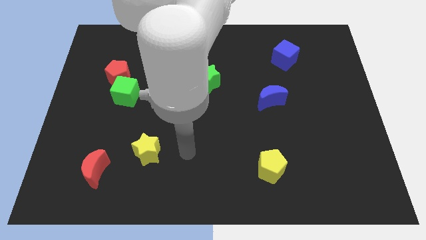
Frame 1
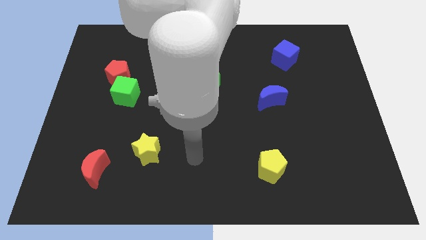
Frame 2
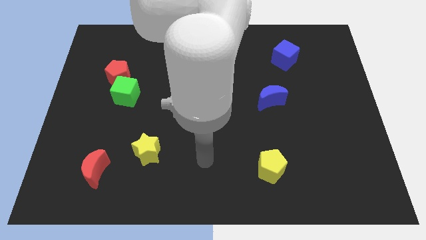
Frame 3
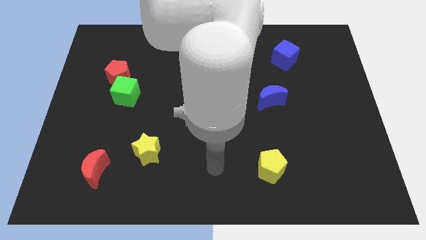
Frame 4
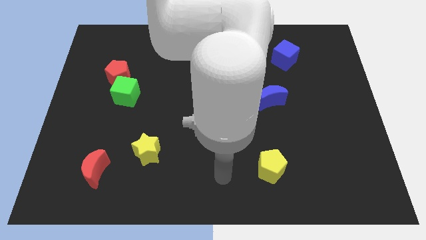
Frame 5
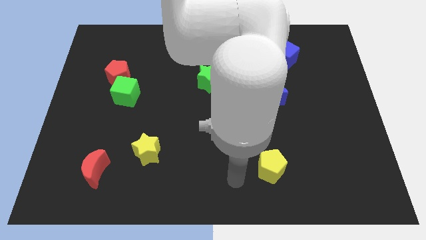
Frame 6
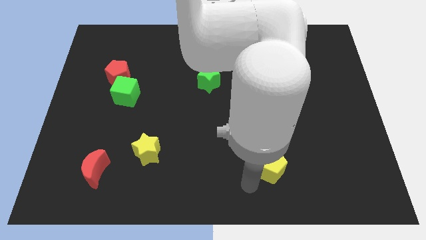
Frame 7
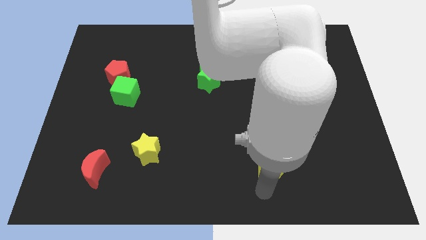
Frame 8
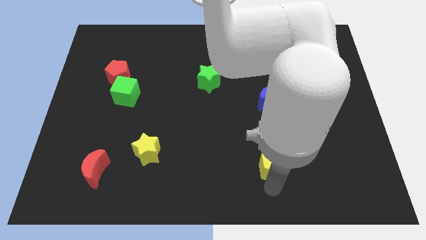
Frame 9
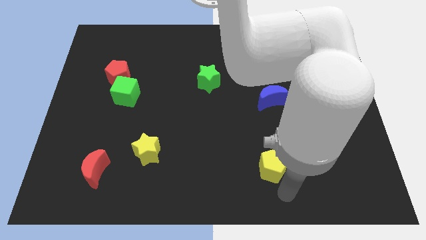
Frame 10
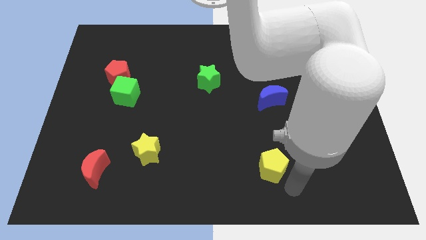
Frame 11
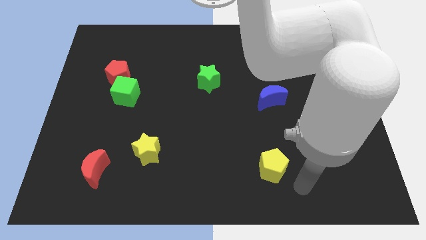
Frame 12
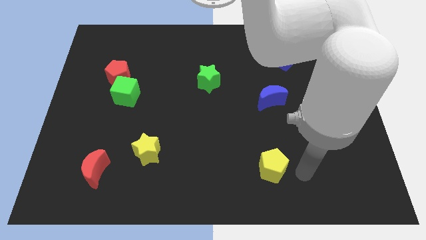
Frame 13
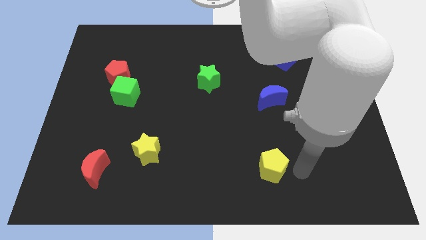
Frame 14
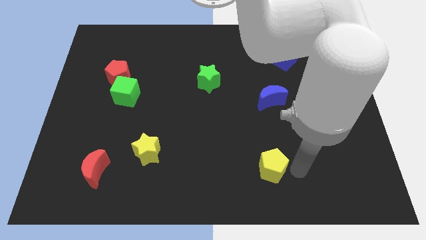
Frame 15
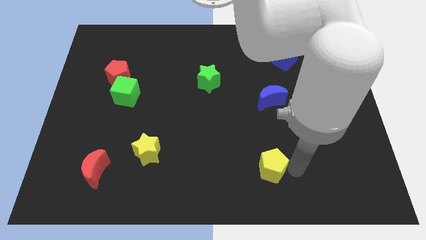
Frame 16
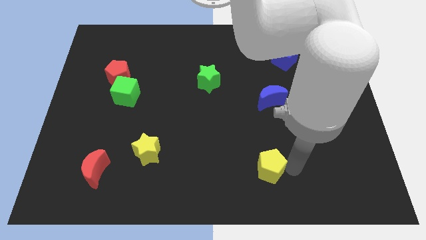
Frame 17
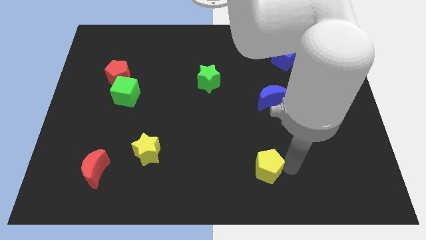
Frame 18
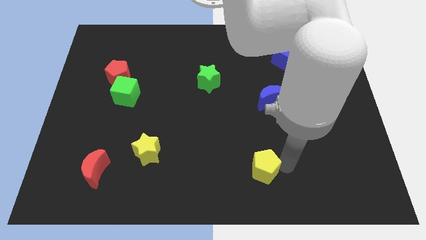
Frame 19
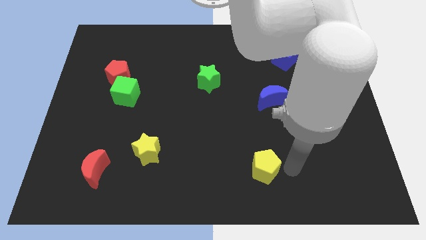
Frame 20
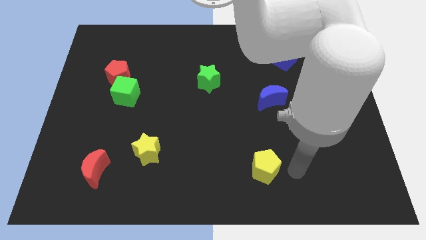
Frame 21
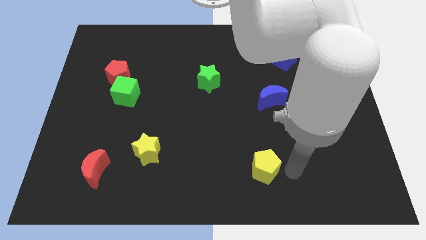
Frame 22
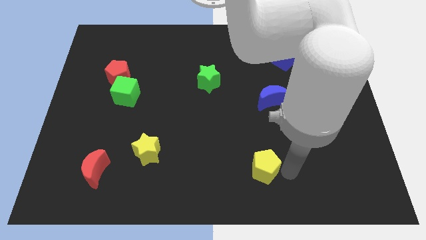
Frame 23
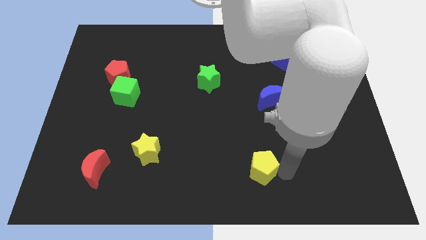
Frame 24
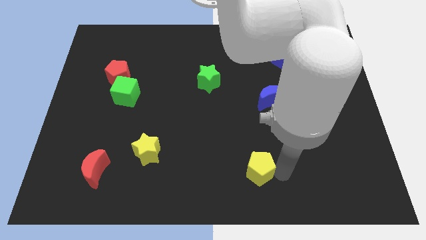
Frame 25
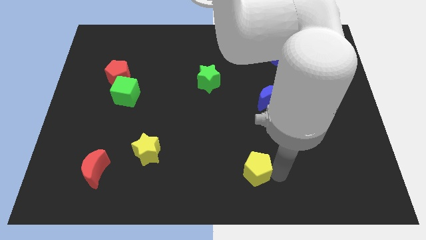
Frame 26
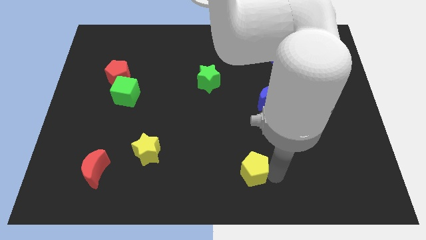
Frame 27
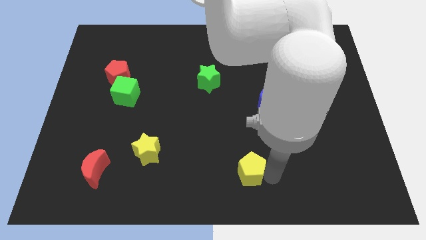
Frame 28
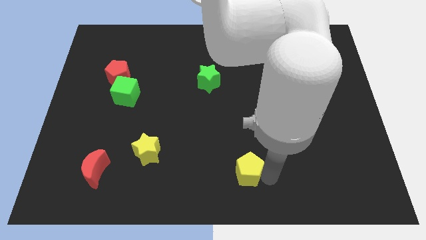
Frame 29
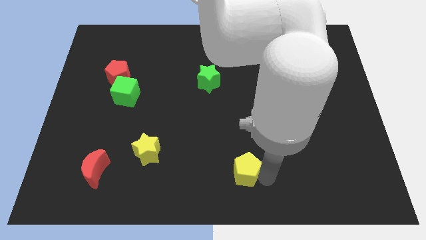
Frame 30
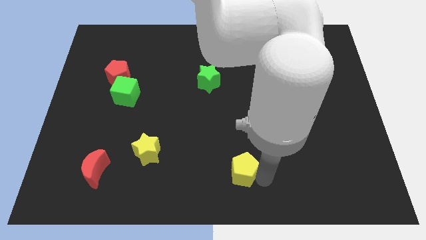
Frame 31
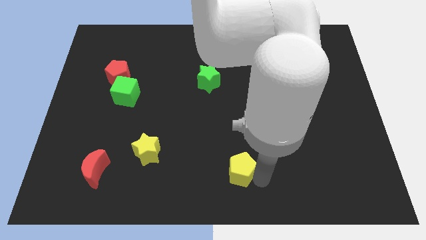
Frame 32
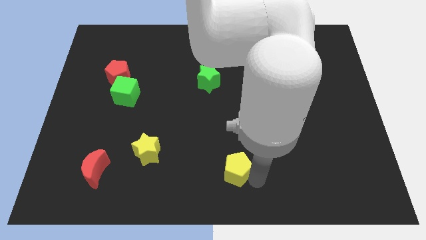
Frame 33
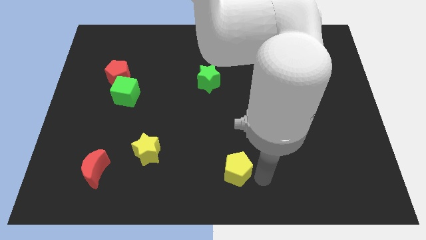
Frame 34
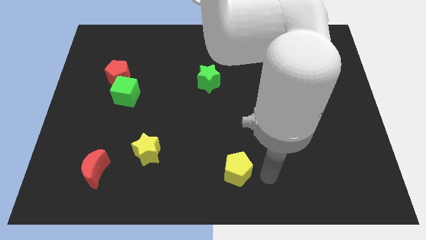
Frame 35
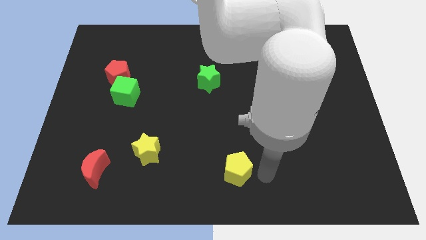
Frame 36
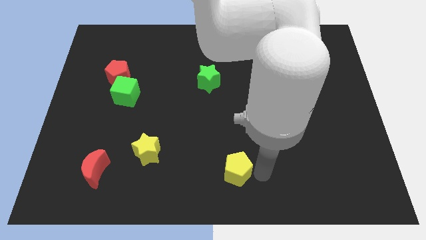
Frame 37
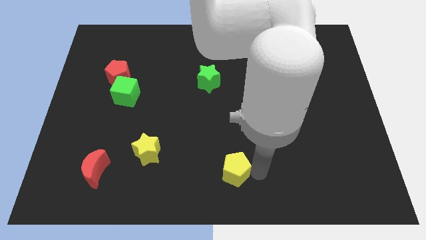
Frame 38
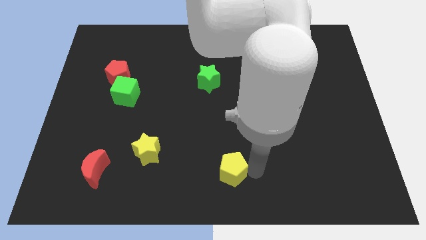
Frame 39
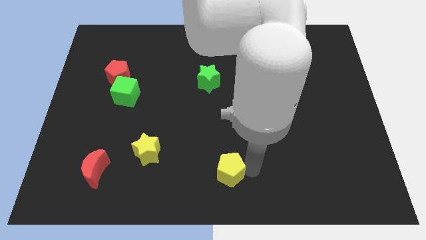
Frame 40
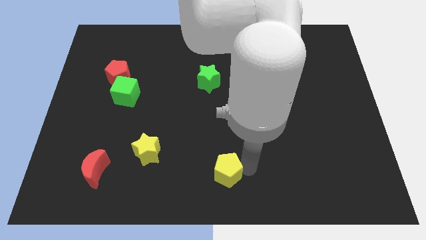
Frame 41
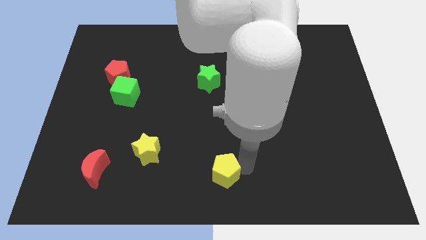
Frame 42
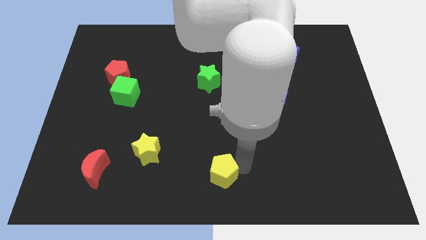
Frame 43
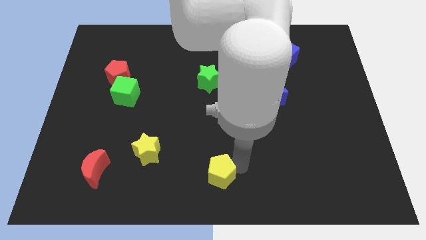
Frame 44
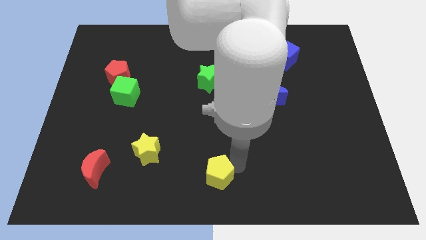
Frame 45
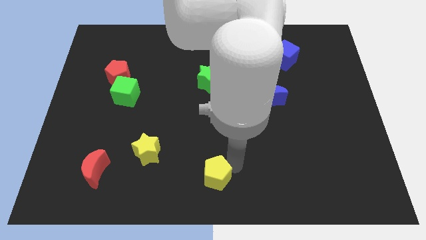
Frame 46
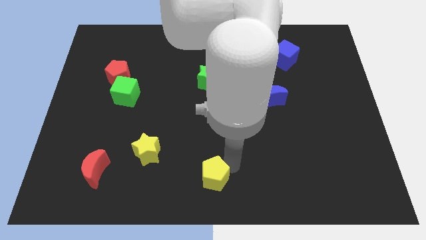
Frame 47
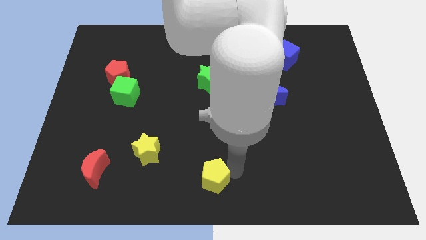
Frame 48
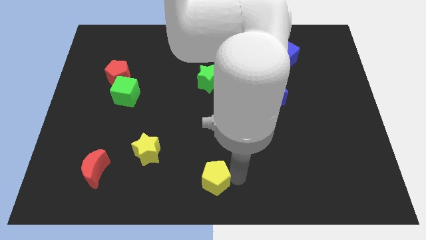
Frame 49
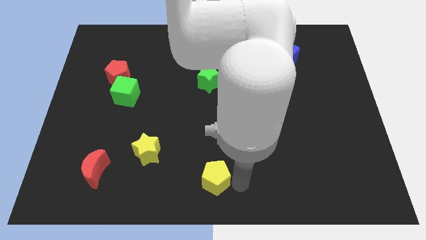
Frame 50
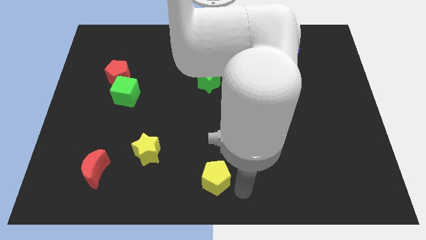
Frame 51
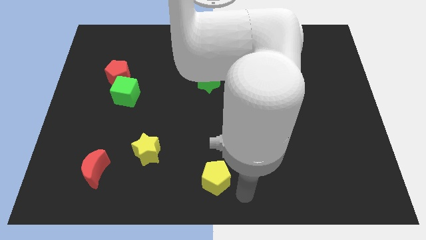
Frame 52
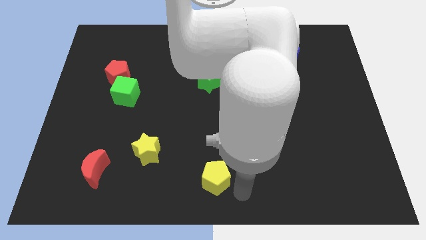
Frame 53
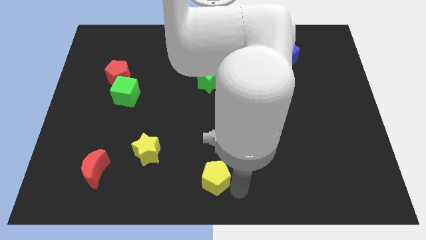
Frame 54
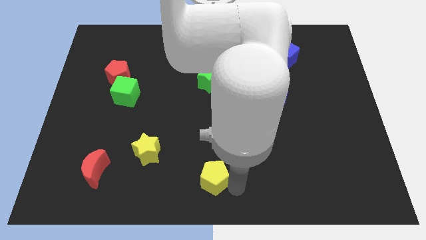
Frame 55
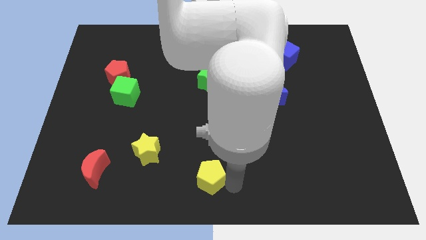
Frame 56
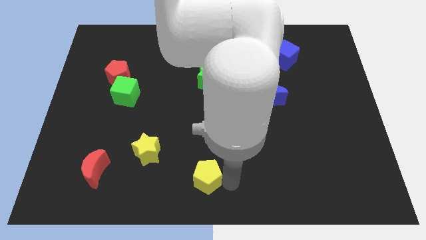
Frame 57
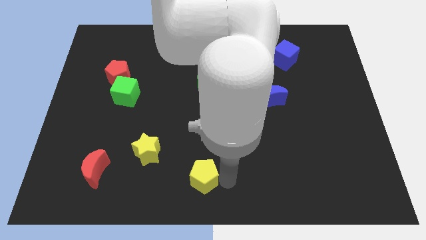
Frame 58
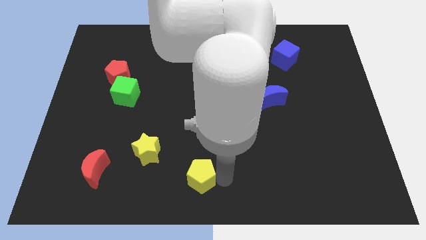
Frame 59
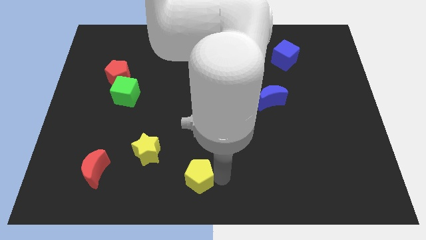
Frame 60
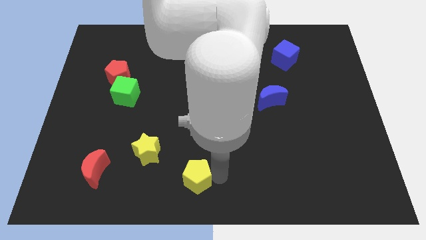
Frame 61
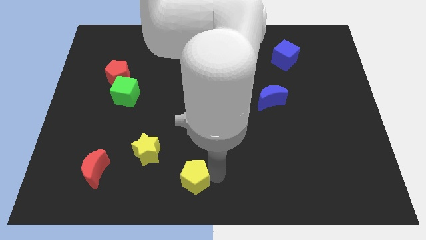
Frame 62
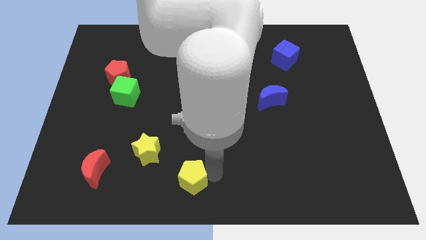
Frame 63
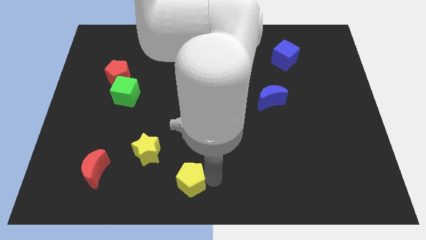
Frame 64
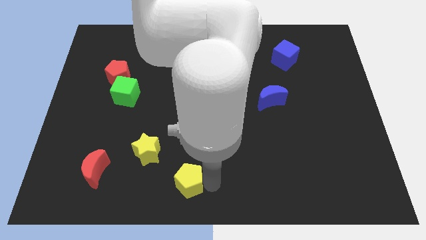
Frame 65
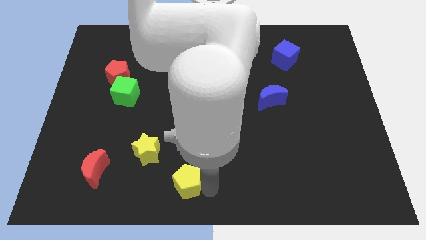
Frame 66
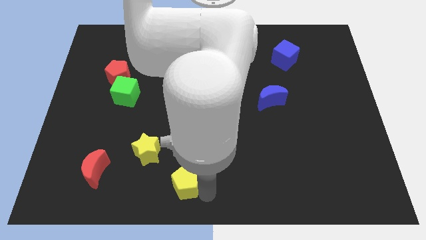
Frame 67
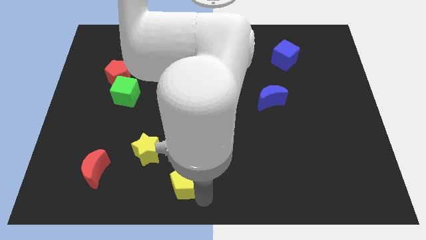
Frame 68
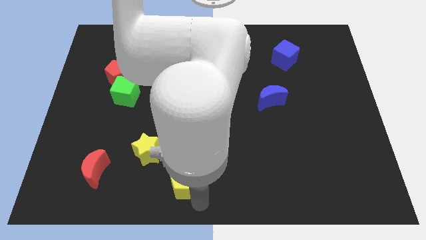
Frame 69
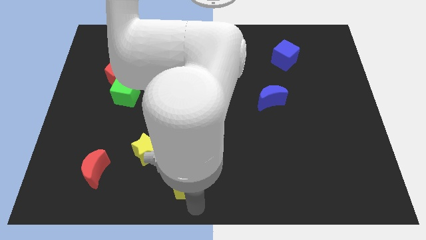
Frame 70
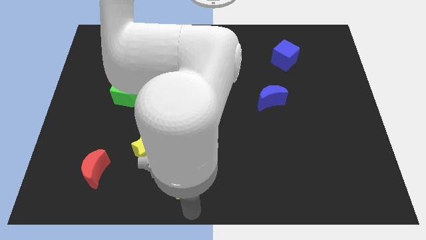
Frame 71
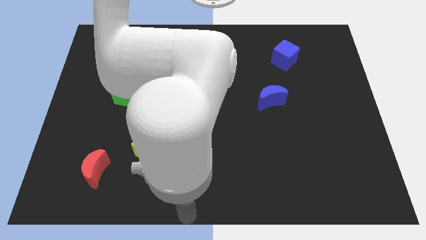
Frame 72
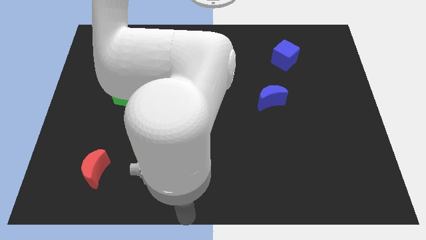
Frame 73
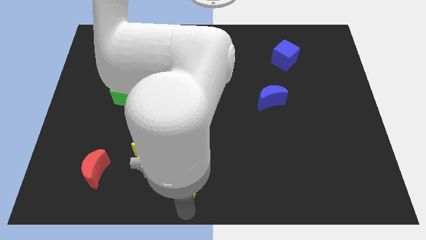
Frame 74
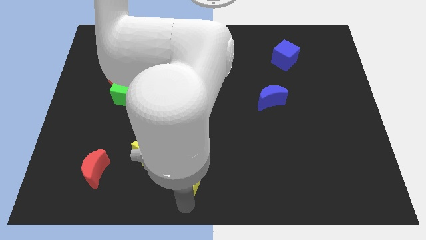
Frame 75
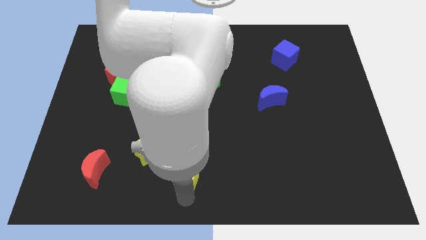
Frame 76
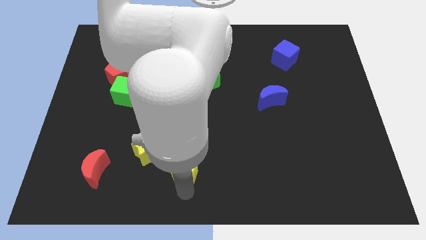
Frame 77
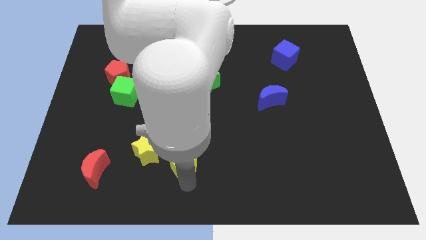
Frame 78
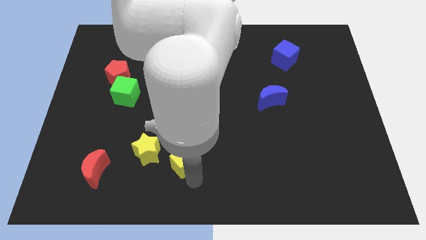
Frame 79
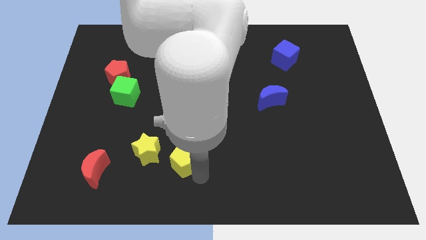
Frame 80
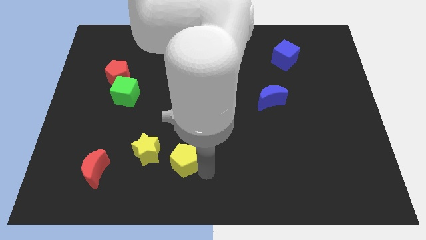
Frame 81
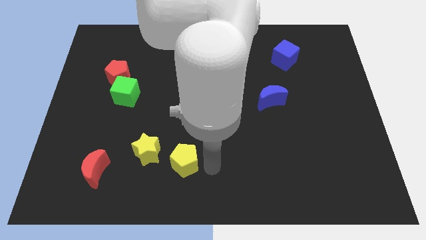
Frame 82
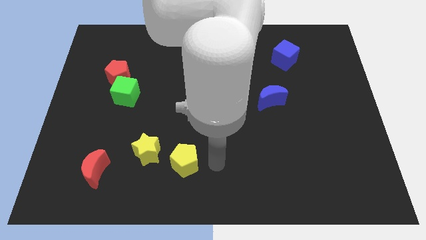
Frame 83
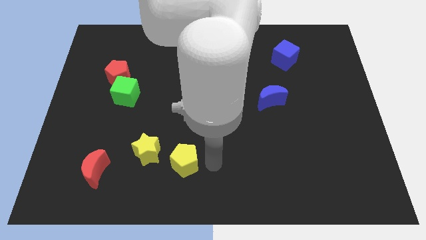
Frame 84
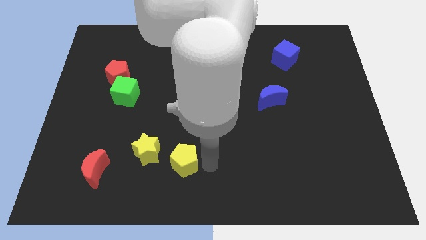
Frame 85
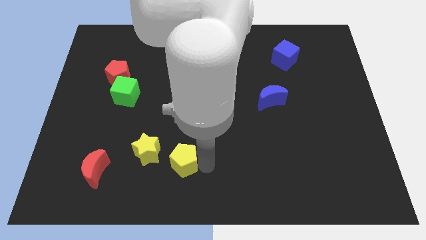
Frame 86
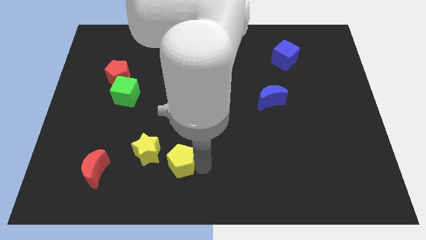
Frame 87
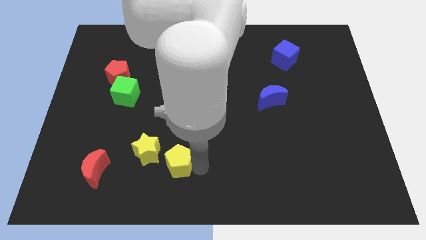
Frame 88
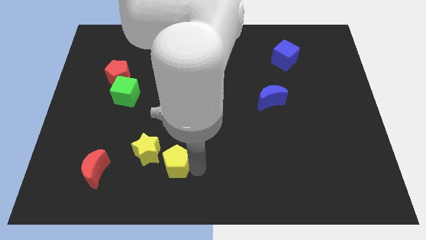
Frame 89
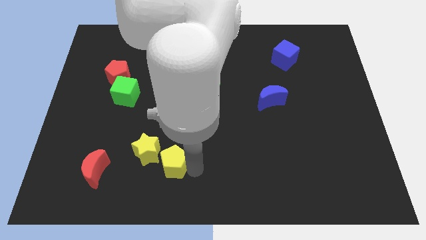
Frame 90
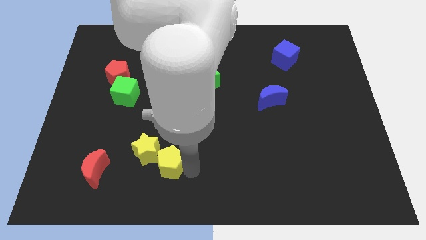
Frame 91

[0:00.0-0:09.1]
slide the yellow pentagon next to the yellow star
